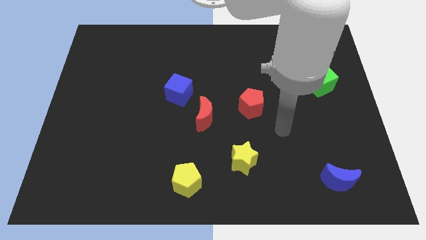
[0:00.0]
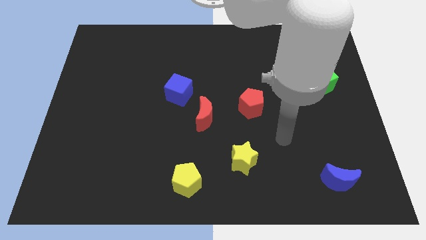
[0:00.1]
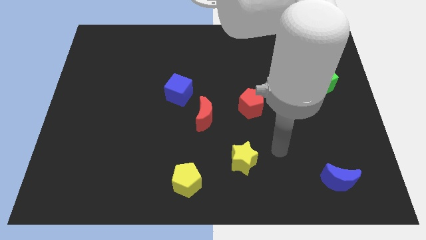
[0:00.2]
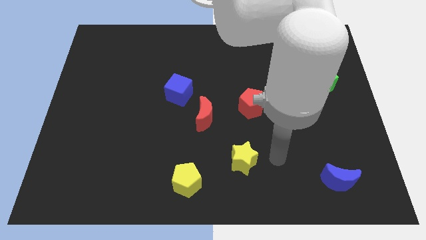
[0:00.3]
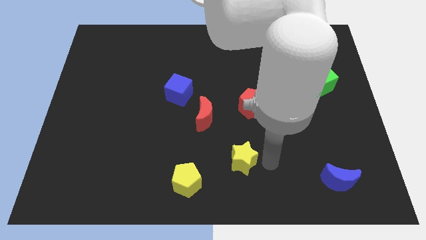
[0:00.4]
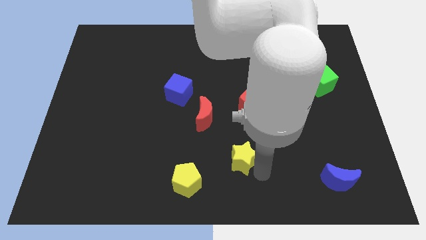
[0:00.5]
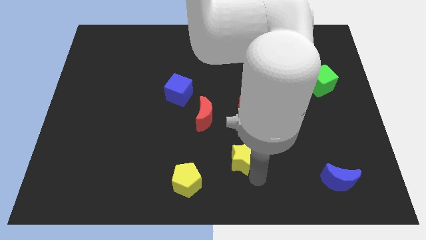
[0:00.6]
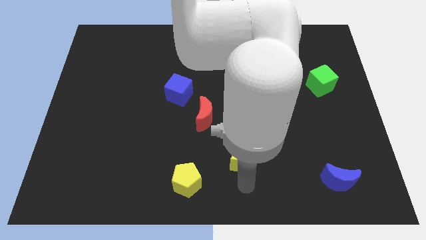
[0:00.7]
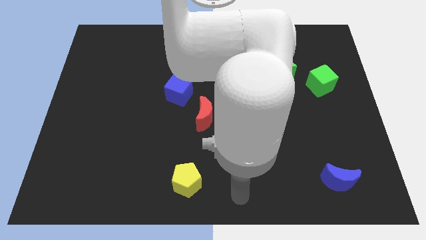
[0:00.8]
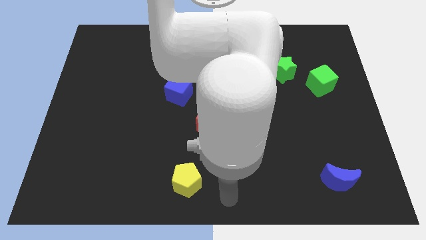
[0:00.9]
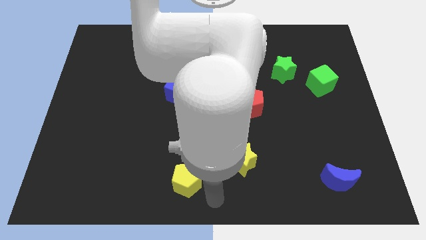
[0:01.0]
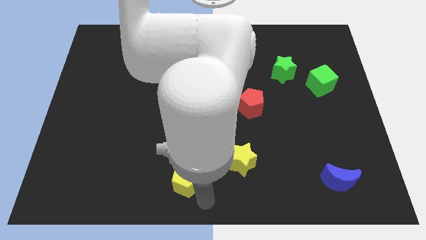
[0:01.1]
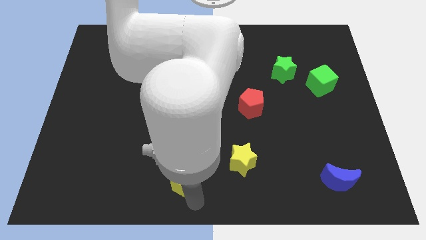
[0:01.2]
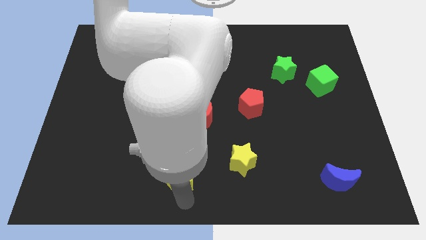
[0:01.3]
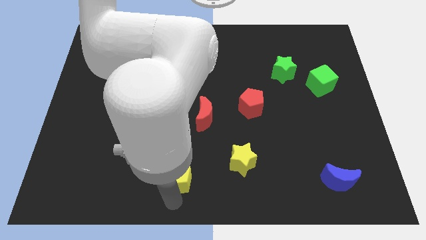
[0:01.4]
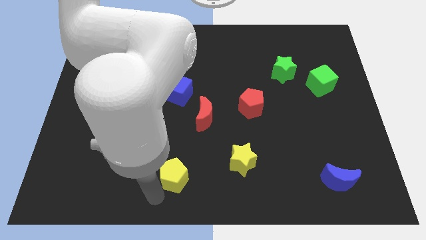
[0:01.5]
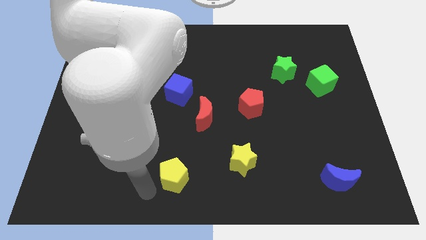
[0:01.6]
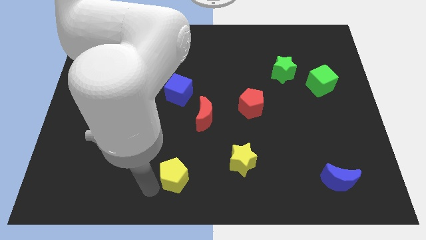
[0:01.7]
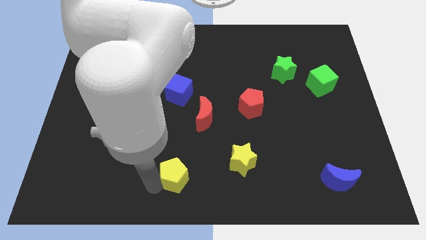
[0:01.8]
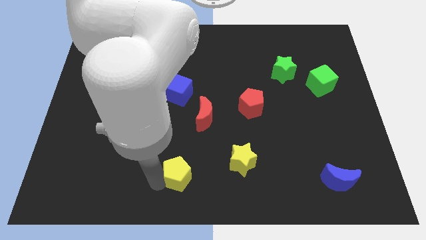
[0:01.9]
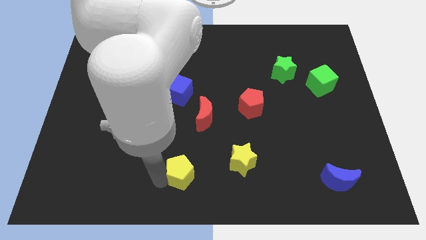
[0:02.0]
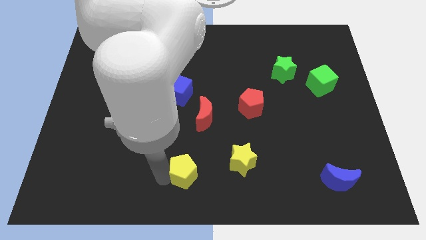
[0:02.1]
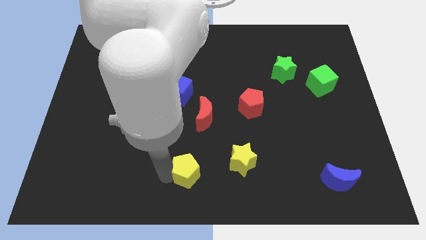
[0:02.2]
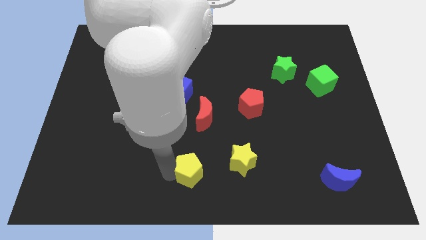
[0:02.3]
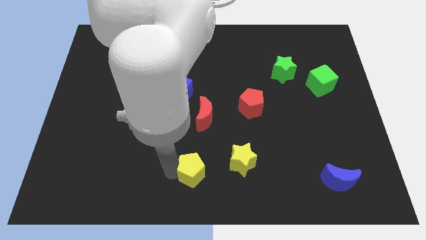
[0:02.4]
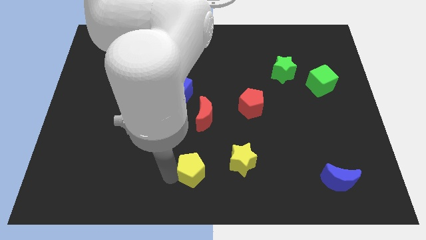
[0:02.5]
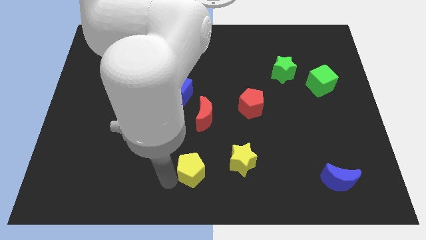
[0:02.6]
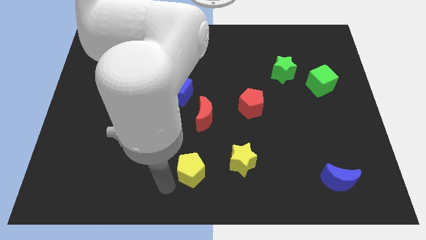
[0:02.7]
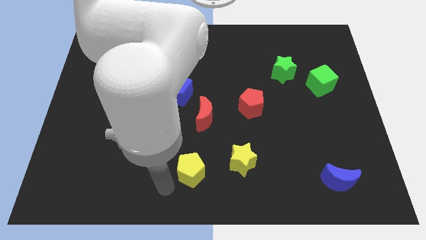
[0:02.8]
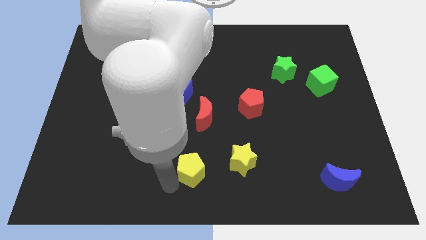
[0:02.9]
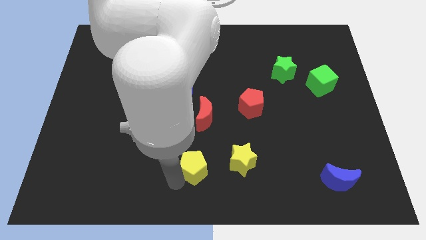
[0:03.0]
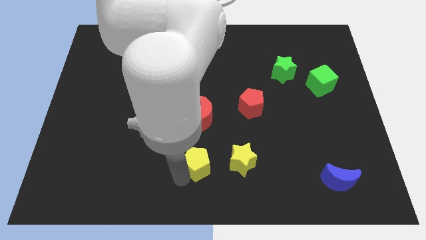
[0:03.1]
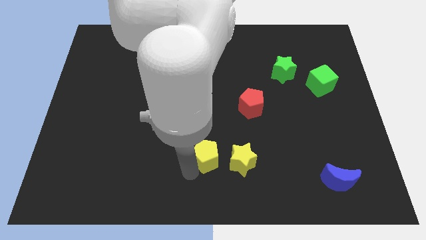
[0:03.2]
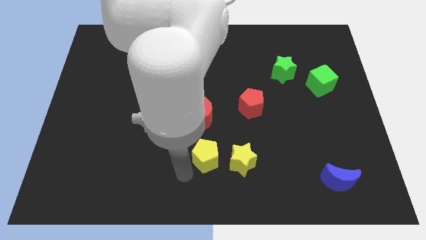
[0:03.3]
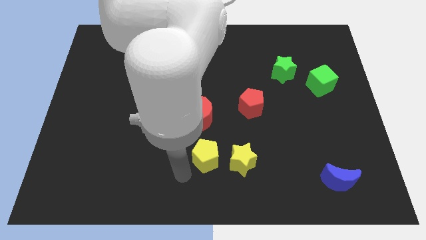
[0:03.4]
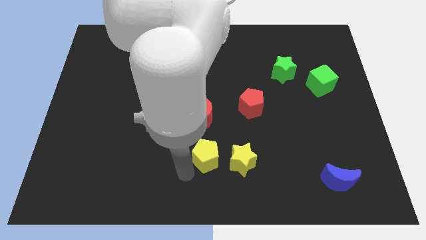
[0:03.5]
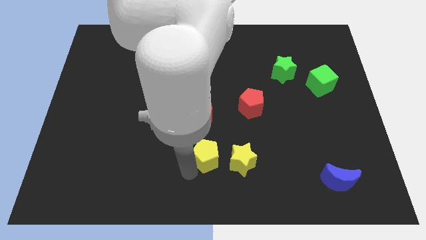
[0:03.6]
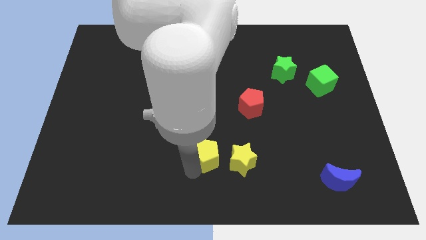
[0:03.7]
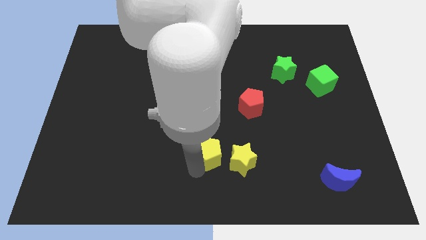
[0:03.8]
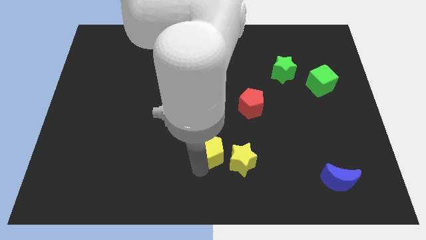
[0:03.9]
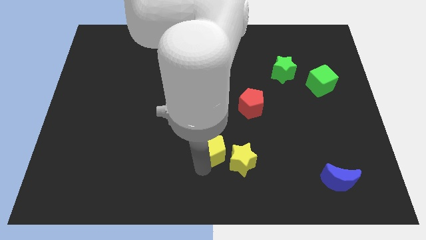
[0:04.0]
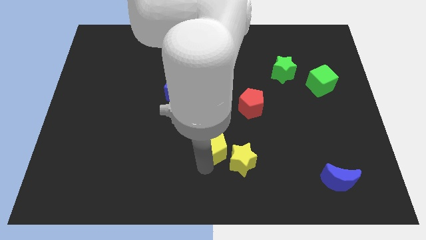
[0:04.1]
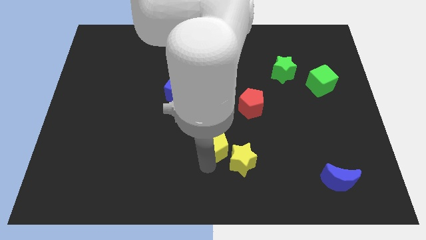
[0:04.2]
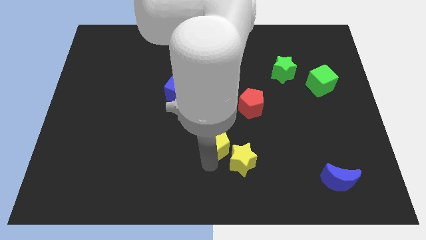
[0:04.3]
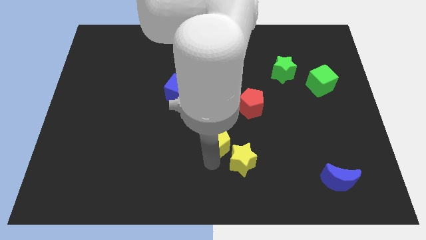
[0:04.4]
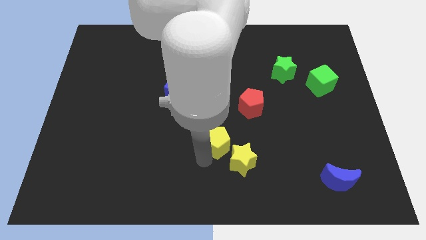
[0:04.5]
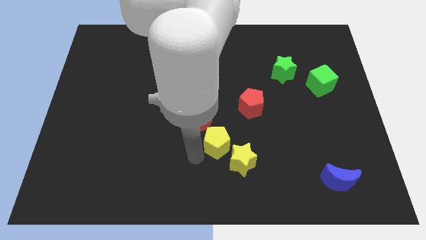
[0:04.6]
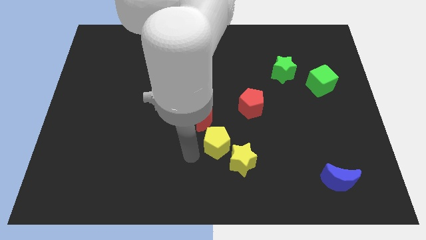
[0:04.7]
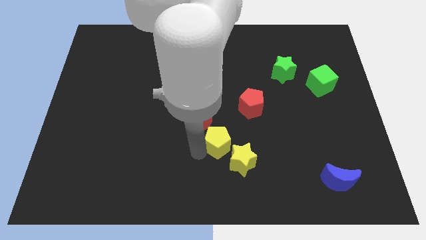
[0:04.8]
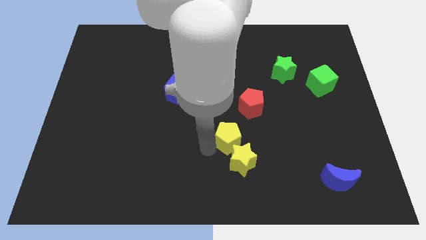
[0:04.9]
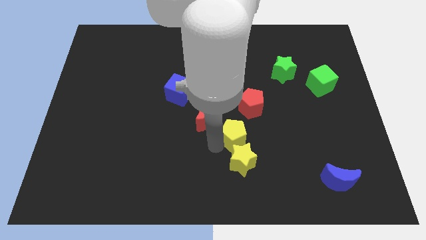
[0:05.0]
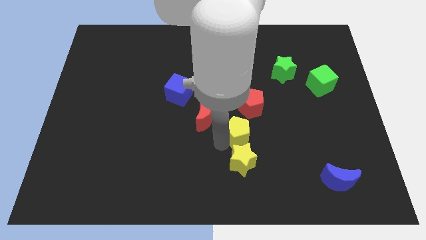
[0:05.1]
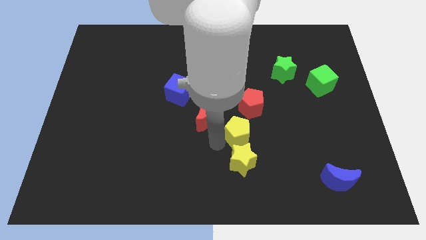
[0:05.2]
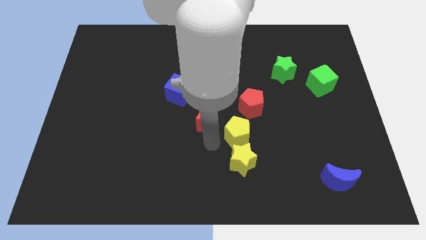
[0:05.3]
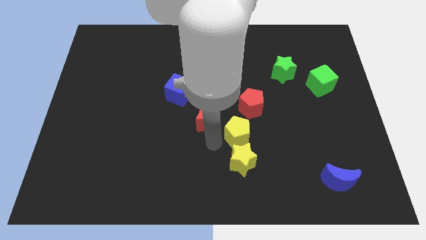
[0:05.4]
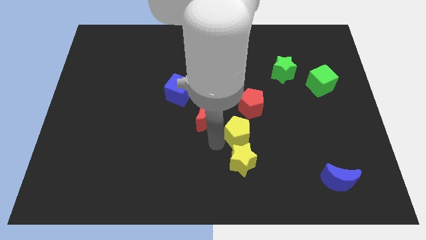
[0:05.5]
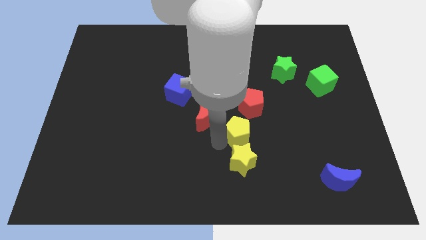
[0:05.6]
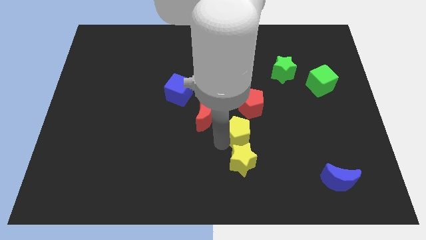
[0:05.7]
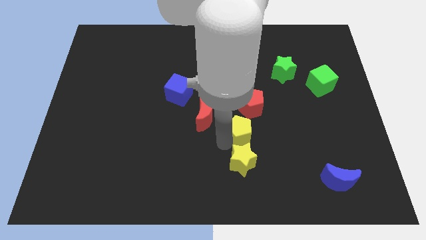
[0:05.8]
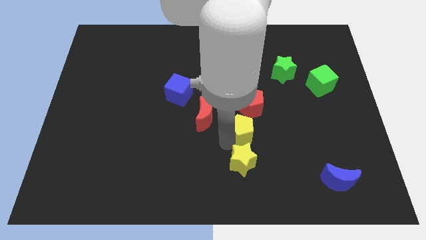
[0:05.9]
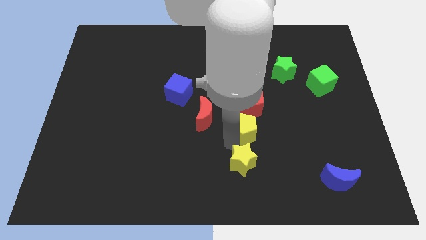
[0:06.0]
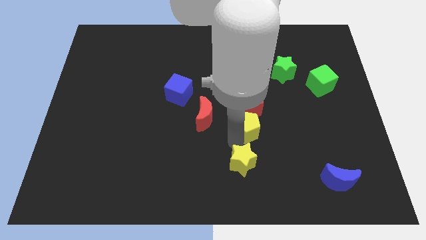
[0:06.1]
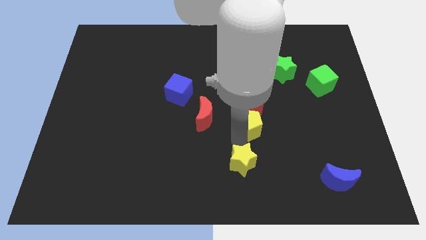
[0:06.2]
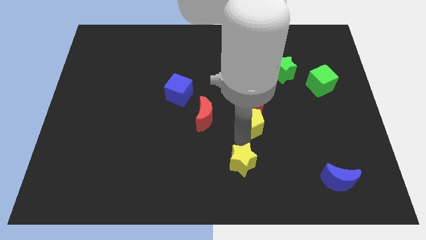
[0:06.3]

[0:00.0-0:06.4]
slide the yellow pentagon up and to the right

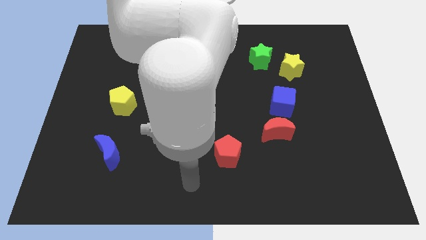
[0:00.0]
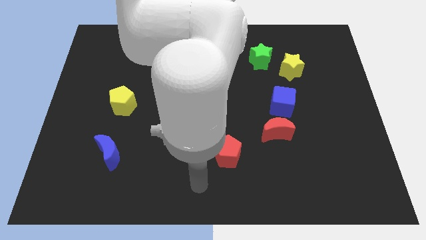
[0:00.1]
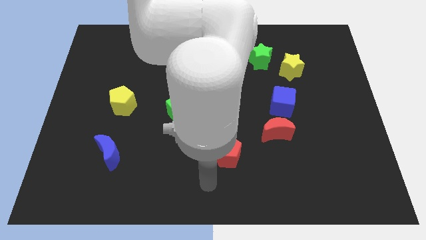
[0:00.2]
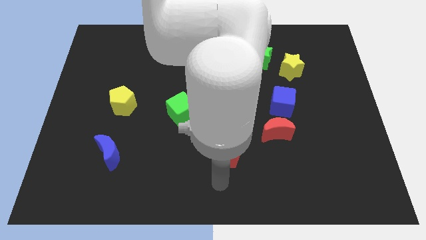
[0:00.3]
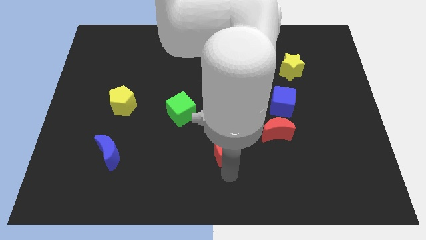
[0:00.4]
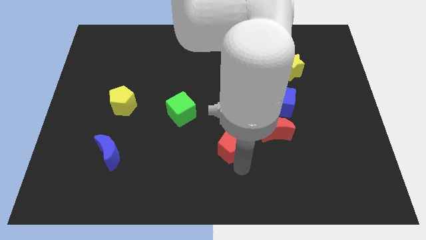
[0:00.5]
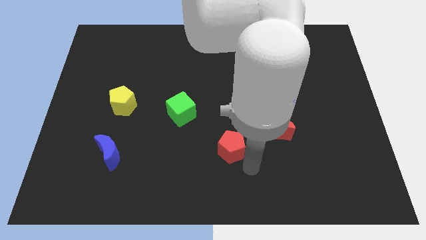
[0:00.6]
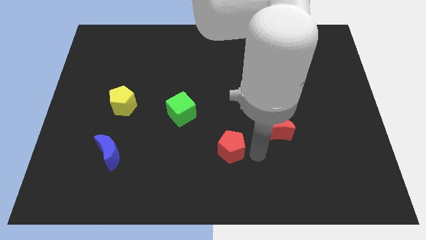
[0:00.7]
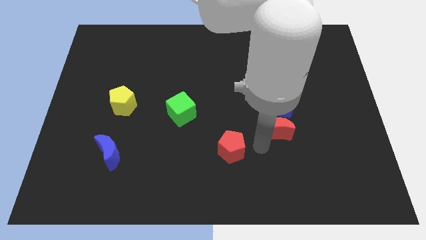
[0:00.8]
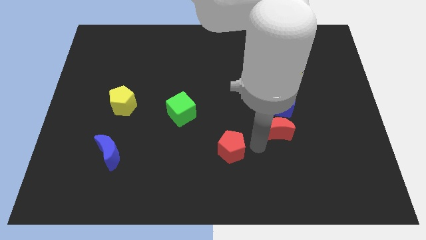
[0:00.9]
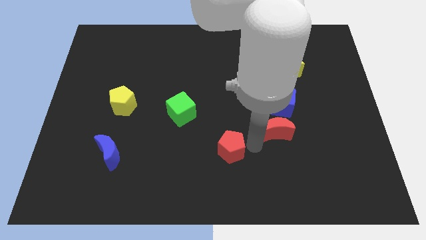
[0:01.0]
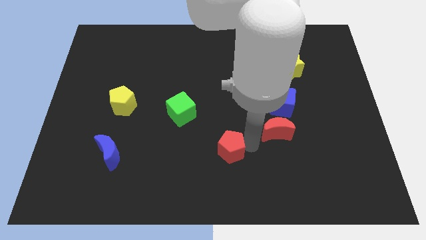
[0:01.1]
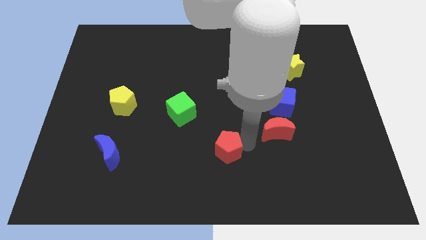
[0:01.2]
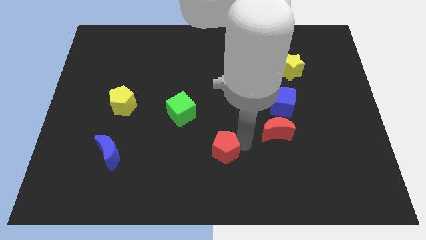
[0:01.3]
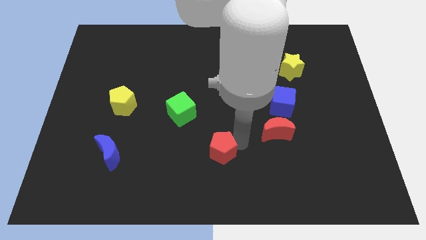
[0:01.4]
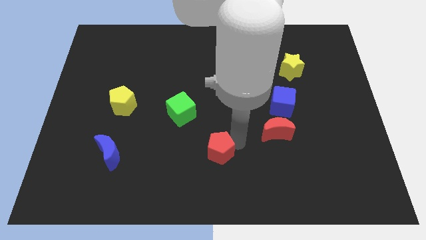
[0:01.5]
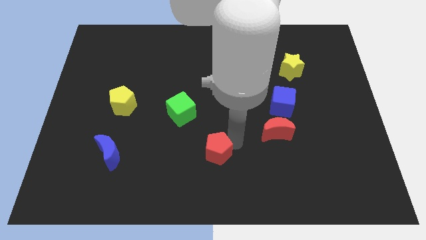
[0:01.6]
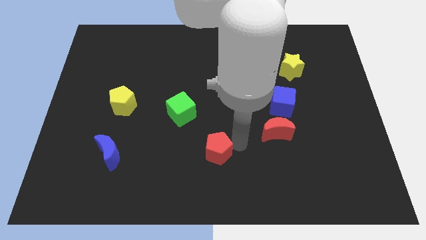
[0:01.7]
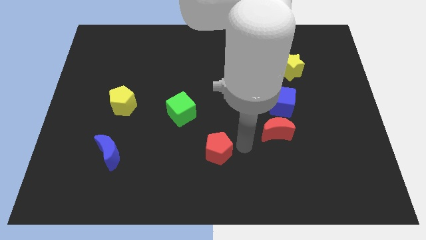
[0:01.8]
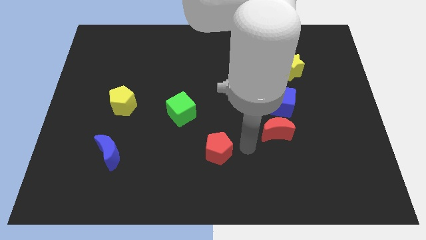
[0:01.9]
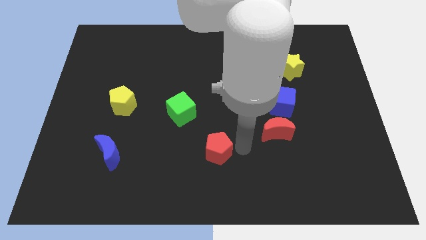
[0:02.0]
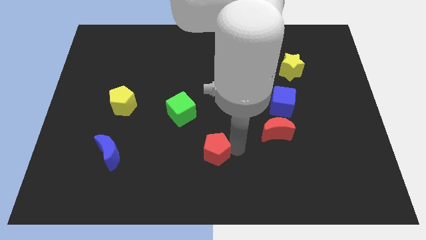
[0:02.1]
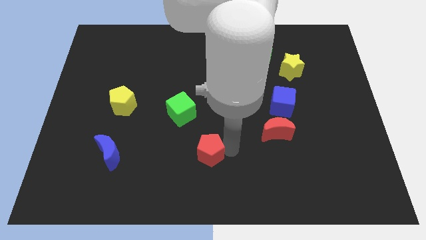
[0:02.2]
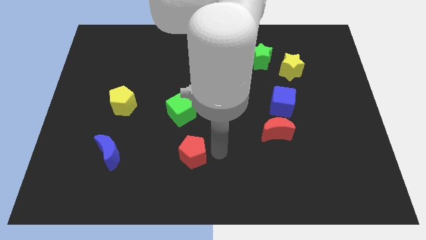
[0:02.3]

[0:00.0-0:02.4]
push the red pentagon to the left slightly
